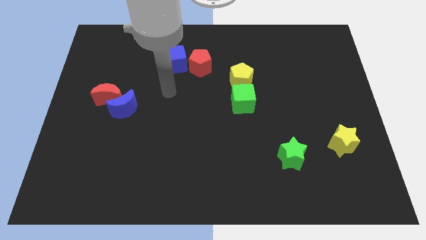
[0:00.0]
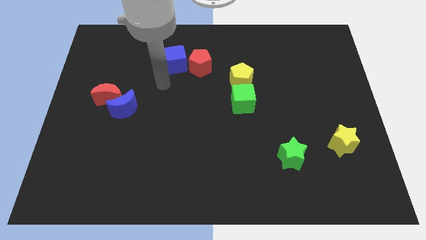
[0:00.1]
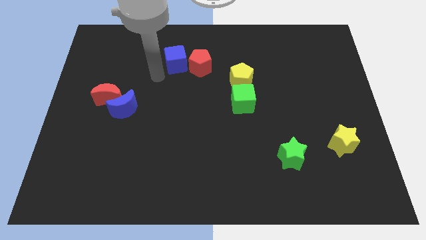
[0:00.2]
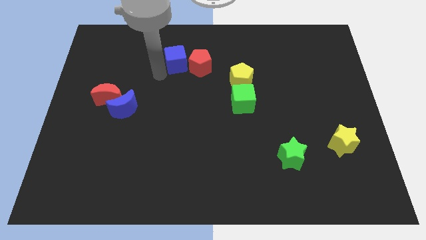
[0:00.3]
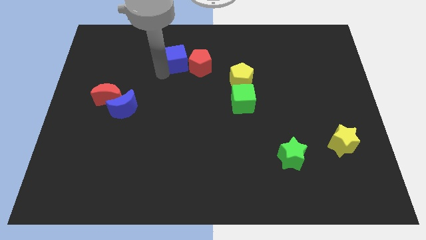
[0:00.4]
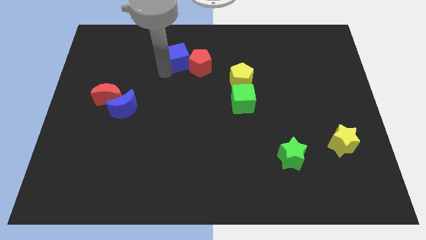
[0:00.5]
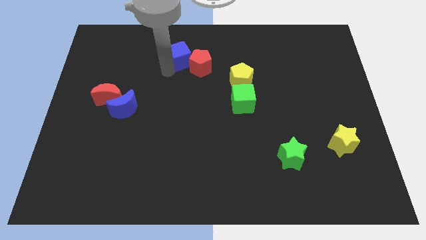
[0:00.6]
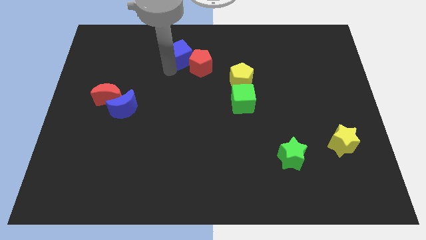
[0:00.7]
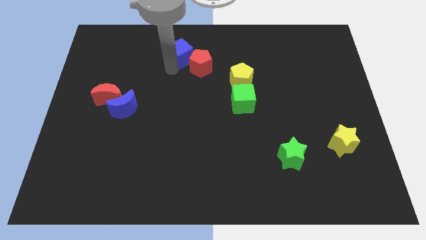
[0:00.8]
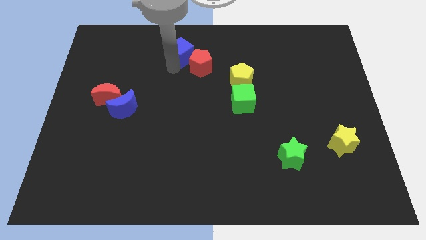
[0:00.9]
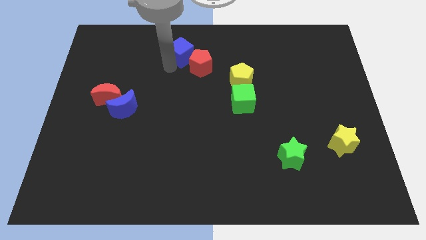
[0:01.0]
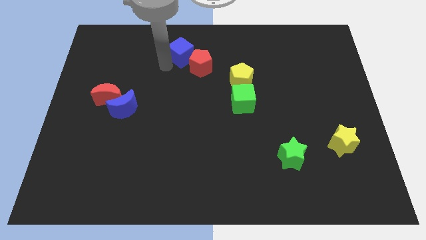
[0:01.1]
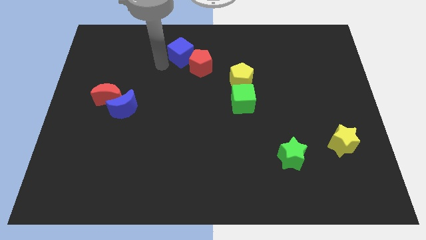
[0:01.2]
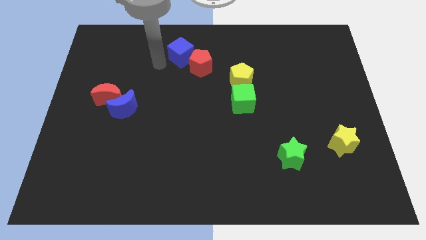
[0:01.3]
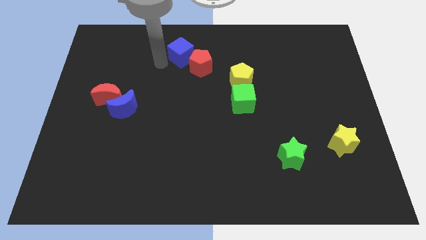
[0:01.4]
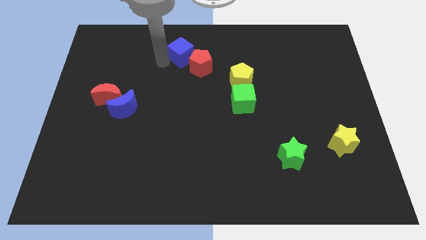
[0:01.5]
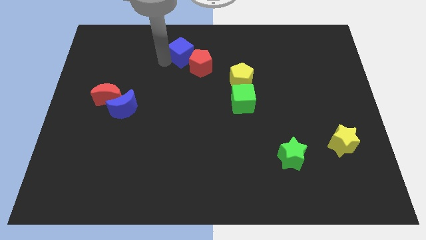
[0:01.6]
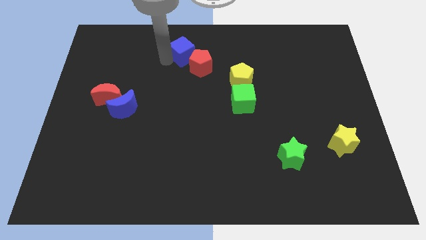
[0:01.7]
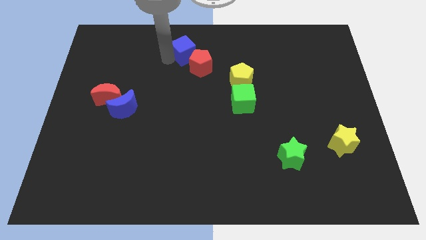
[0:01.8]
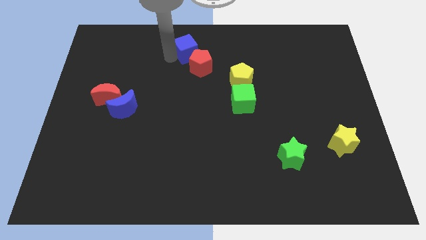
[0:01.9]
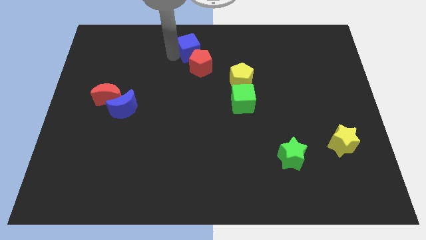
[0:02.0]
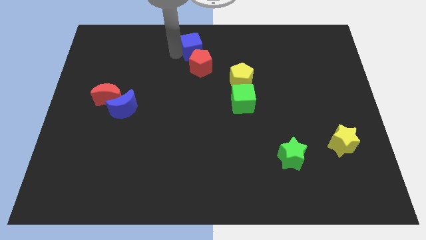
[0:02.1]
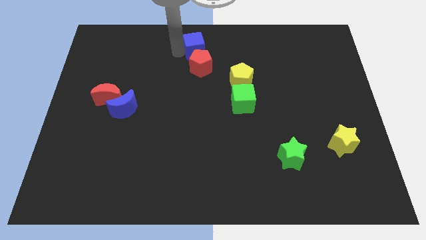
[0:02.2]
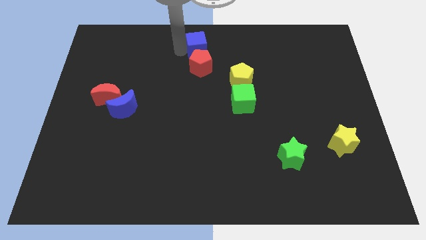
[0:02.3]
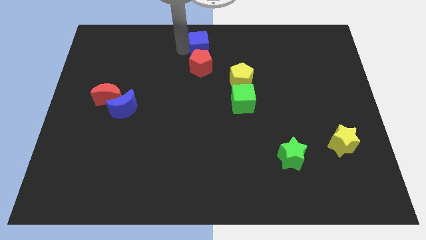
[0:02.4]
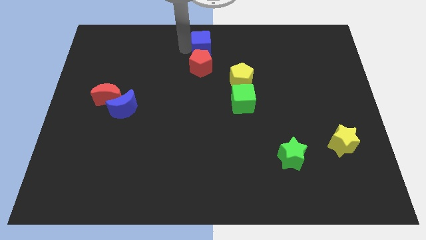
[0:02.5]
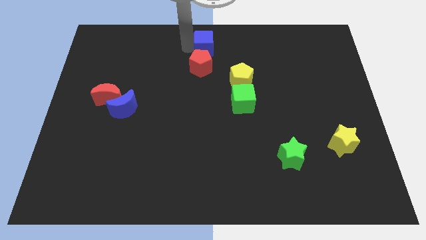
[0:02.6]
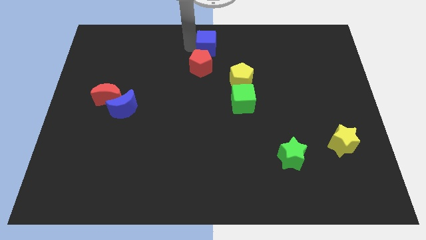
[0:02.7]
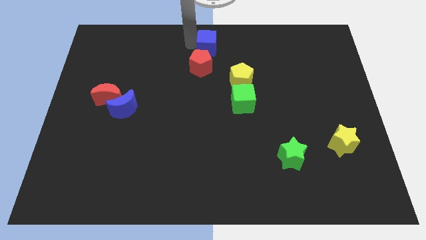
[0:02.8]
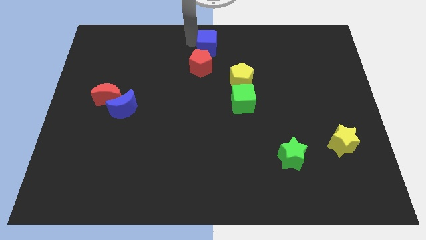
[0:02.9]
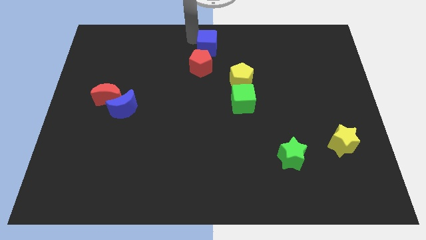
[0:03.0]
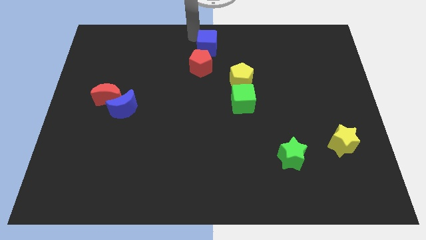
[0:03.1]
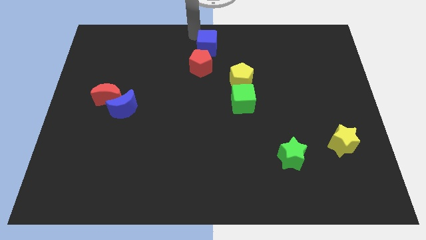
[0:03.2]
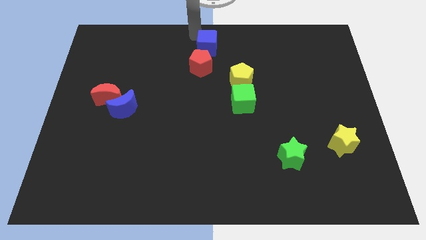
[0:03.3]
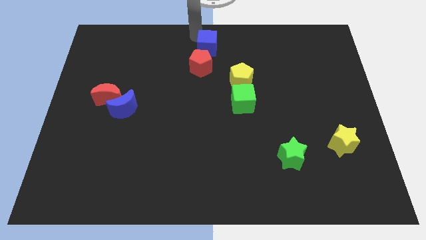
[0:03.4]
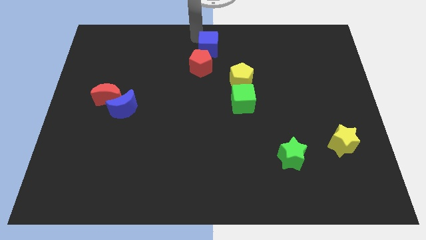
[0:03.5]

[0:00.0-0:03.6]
slightly move the blue cube to the right

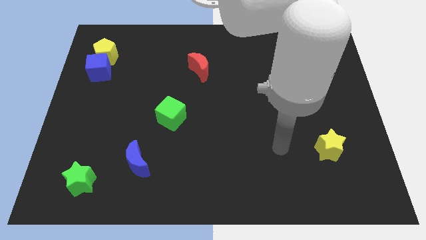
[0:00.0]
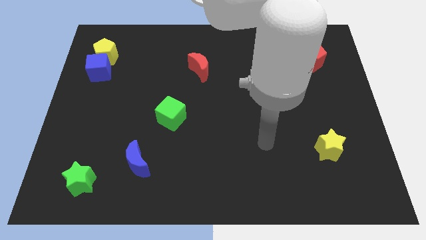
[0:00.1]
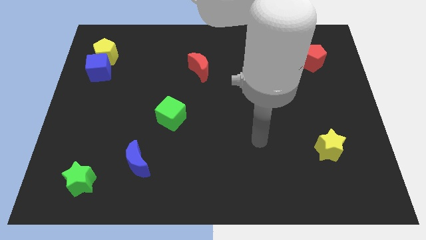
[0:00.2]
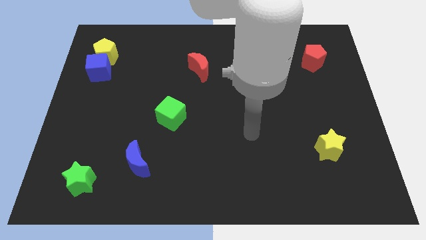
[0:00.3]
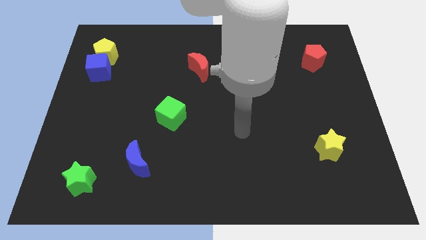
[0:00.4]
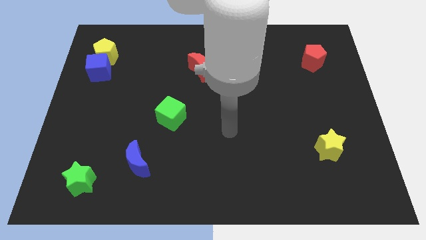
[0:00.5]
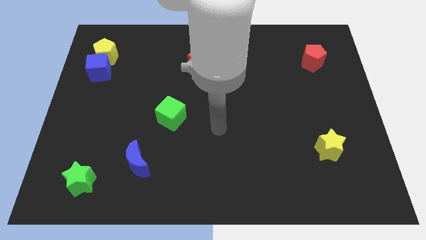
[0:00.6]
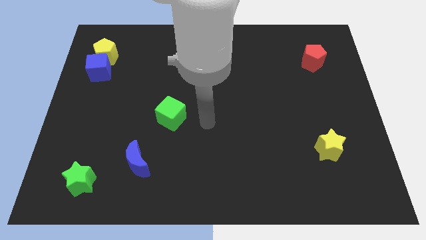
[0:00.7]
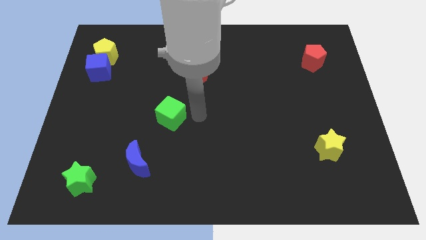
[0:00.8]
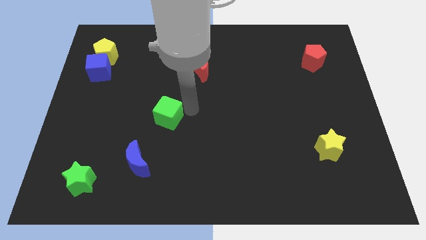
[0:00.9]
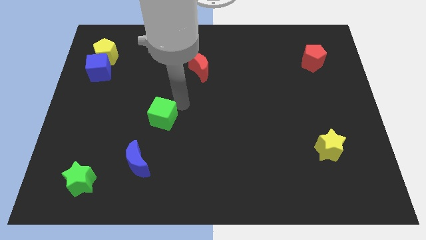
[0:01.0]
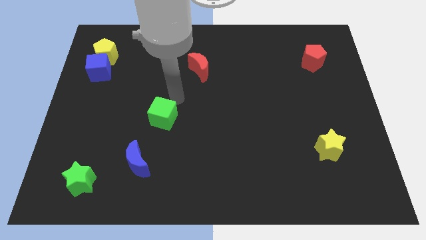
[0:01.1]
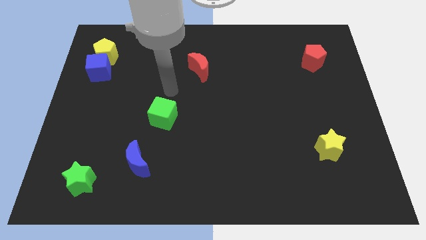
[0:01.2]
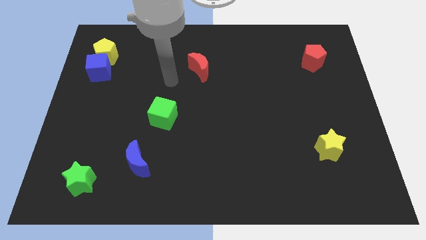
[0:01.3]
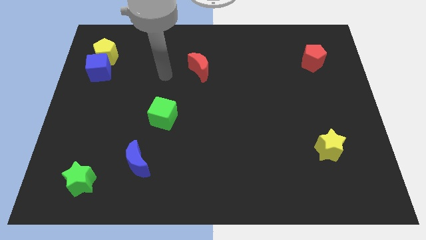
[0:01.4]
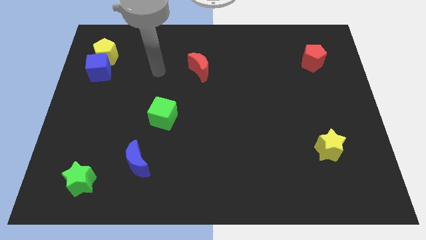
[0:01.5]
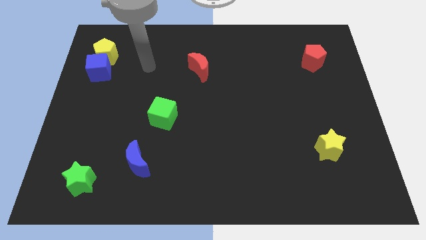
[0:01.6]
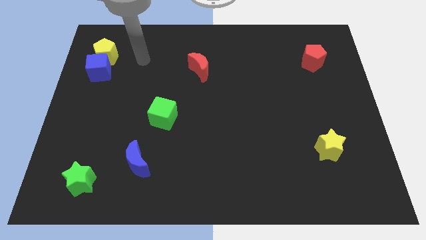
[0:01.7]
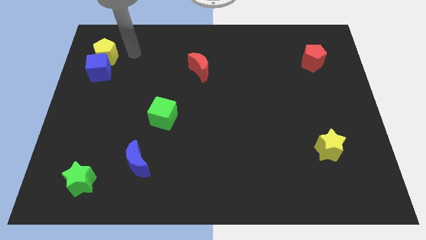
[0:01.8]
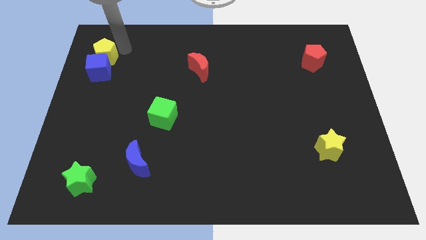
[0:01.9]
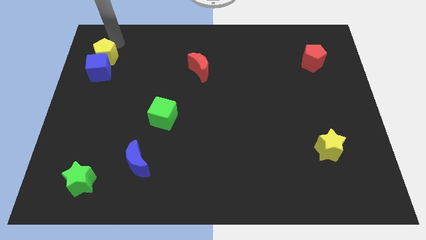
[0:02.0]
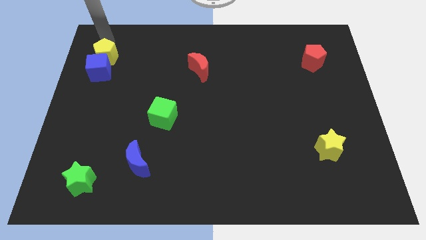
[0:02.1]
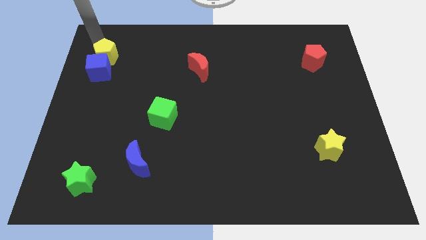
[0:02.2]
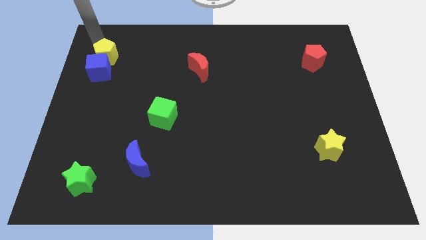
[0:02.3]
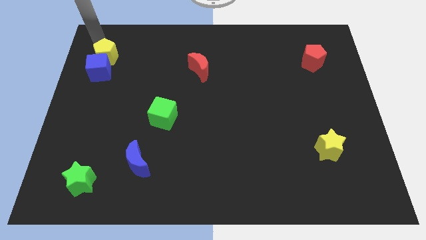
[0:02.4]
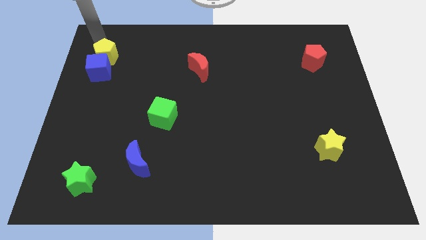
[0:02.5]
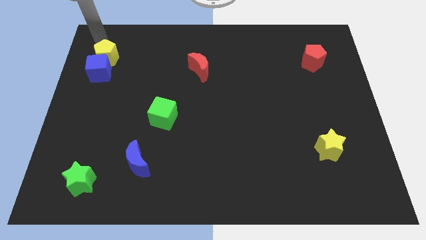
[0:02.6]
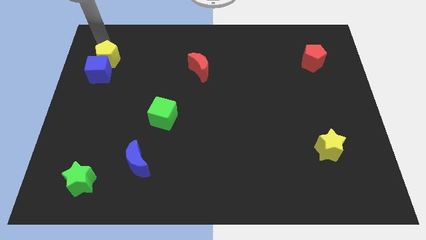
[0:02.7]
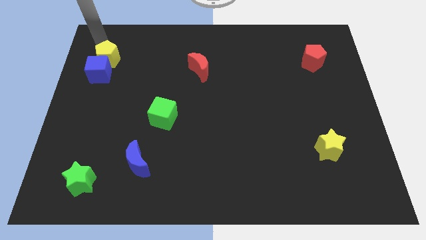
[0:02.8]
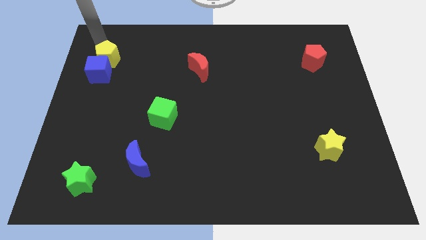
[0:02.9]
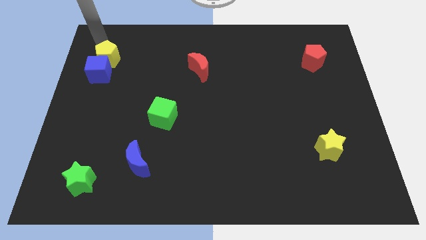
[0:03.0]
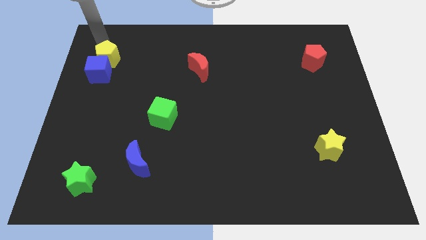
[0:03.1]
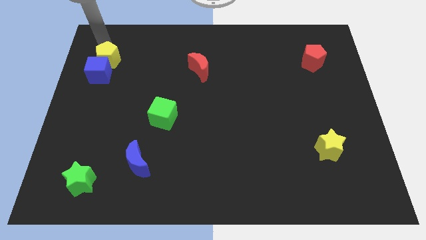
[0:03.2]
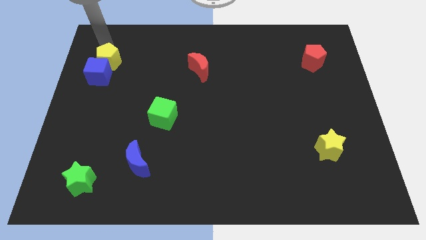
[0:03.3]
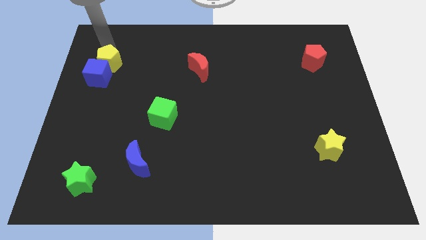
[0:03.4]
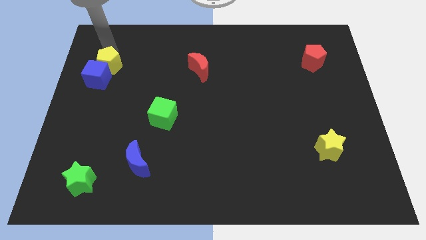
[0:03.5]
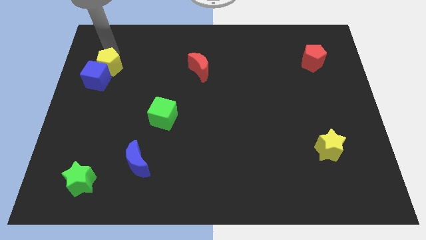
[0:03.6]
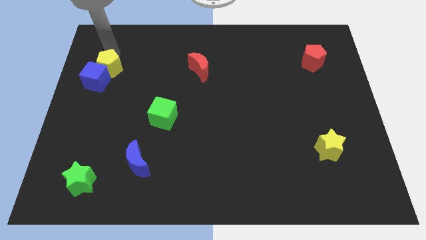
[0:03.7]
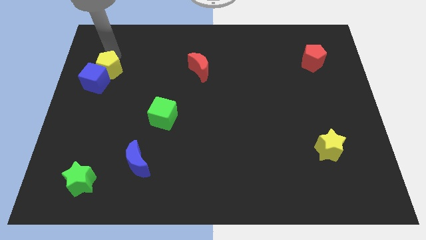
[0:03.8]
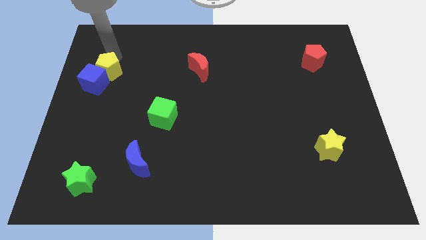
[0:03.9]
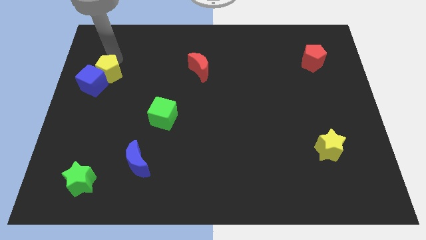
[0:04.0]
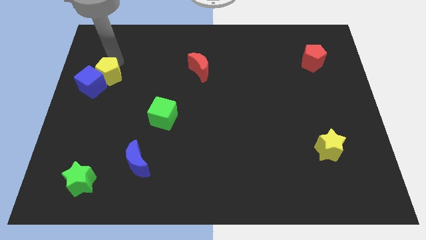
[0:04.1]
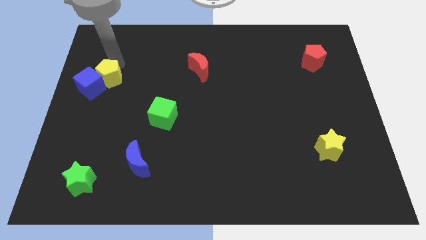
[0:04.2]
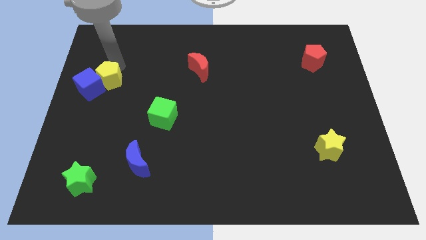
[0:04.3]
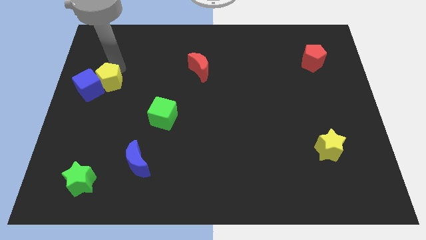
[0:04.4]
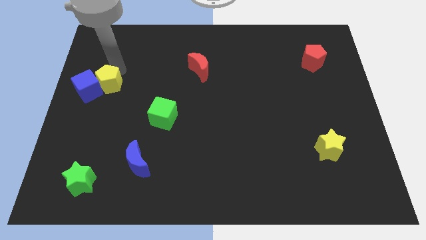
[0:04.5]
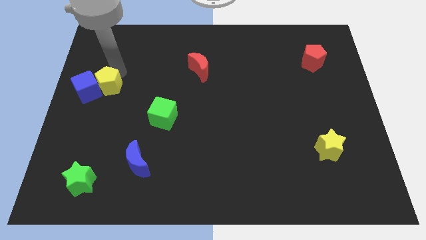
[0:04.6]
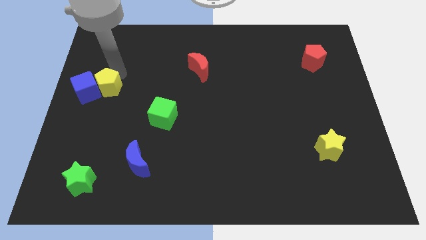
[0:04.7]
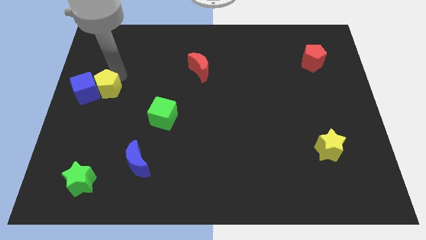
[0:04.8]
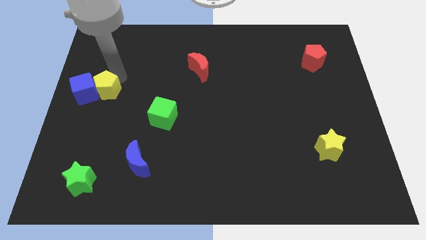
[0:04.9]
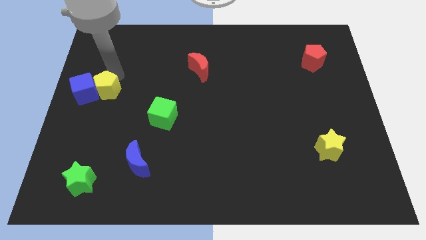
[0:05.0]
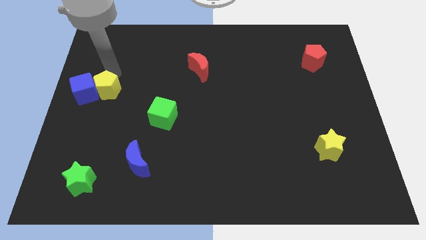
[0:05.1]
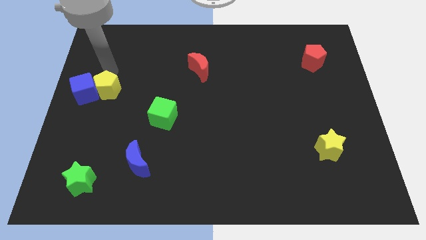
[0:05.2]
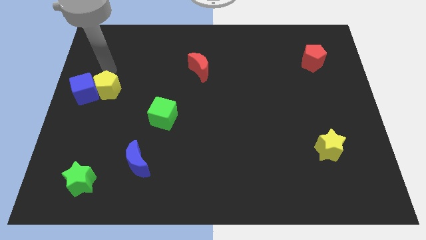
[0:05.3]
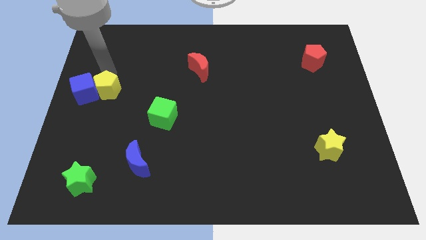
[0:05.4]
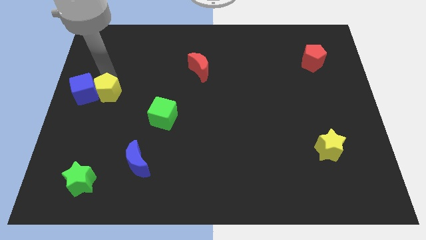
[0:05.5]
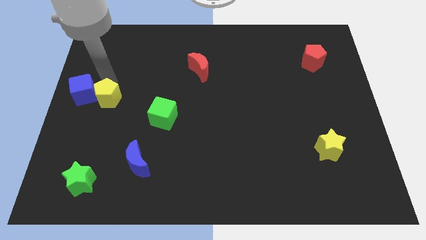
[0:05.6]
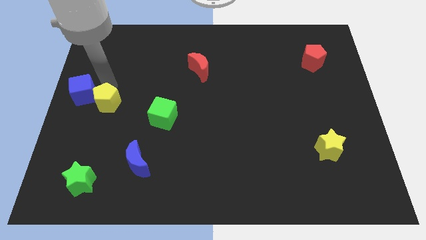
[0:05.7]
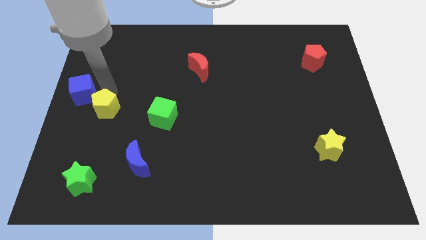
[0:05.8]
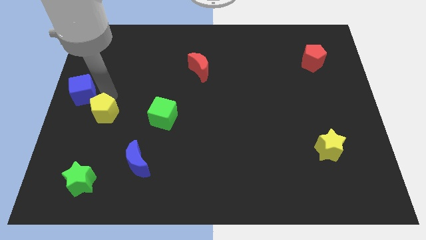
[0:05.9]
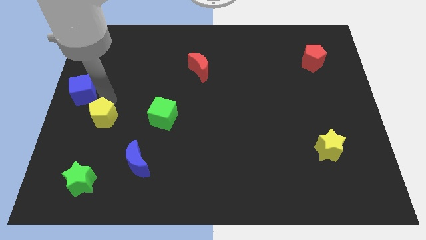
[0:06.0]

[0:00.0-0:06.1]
slide the yellow pentagon down
